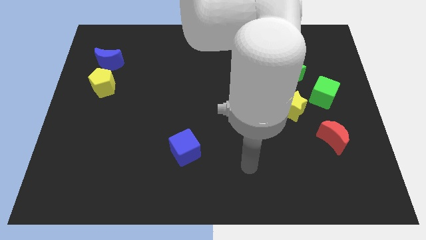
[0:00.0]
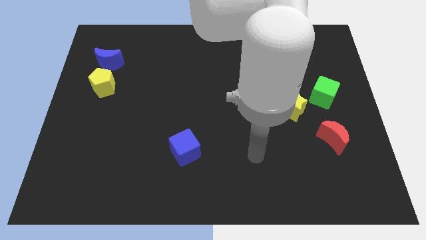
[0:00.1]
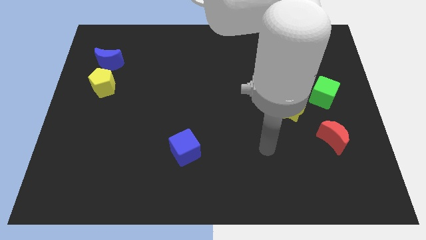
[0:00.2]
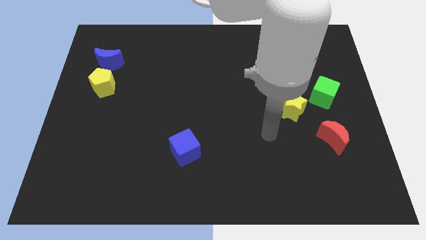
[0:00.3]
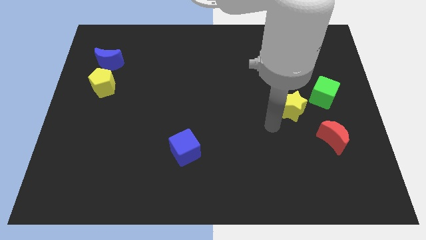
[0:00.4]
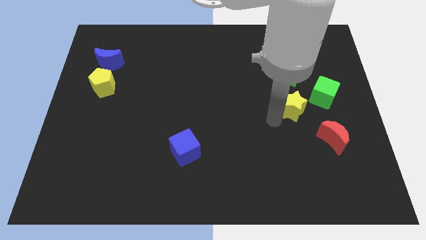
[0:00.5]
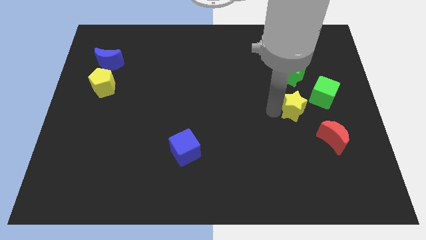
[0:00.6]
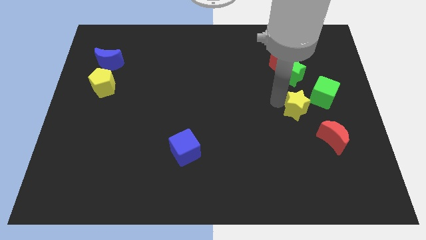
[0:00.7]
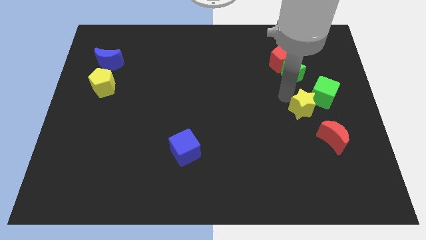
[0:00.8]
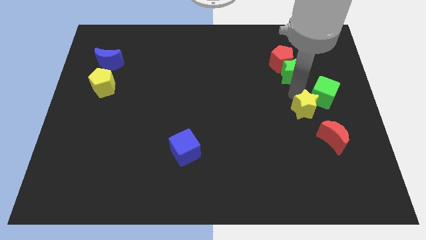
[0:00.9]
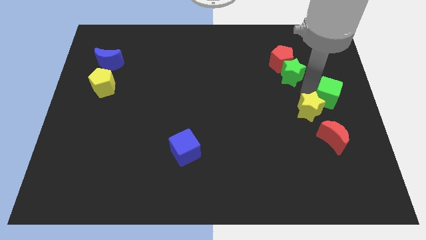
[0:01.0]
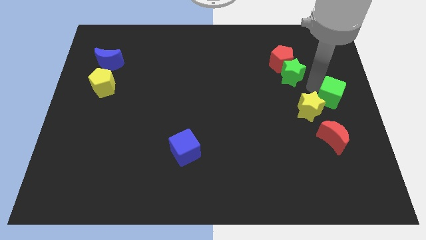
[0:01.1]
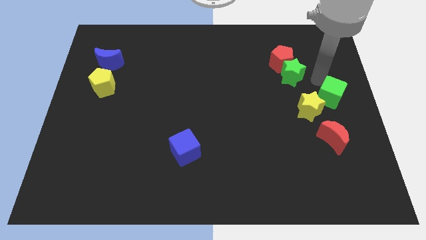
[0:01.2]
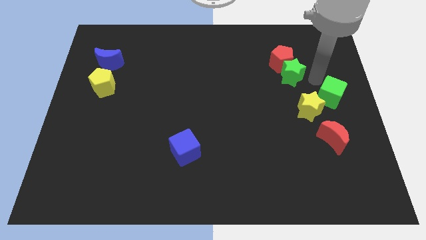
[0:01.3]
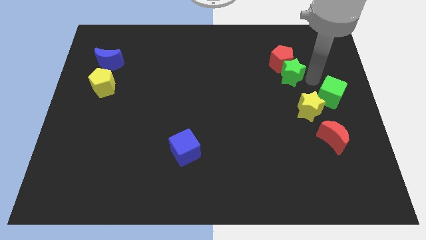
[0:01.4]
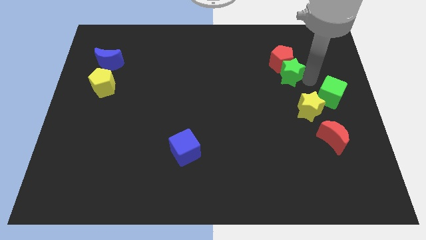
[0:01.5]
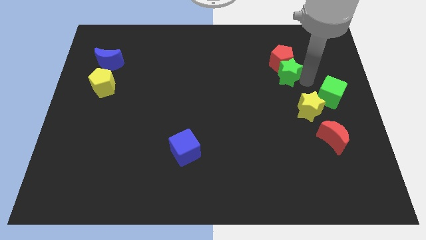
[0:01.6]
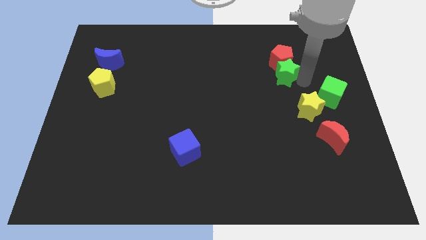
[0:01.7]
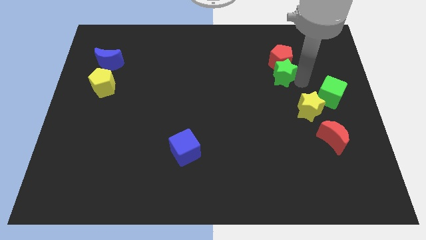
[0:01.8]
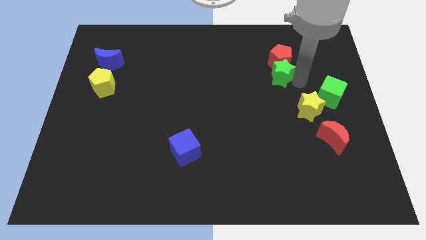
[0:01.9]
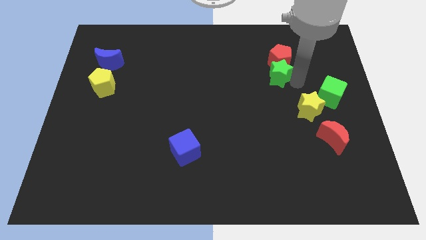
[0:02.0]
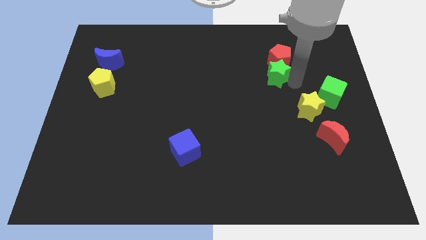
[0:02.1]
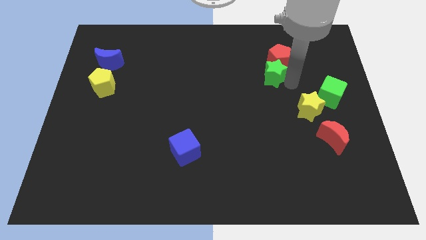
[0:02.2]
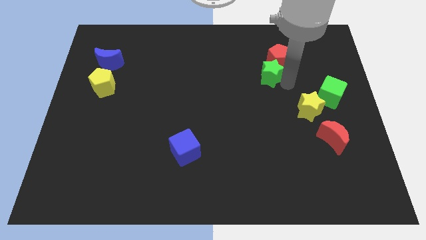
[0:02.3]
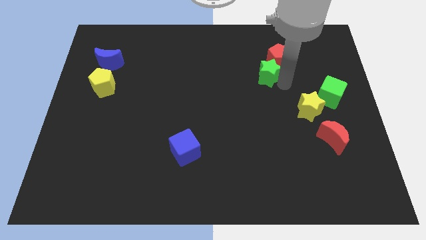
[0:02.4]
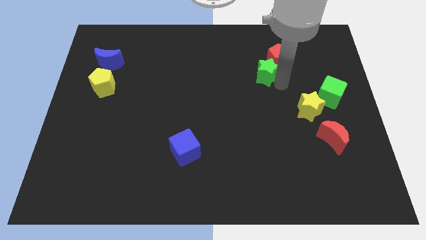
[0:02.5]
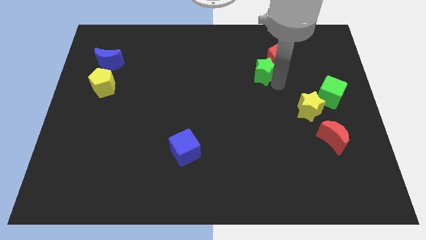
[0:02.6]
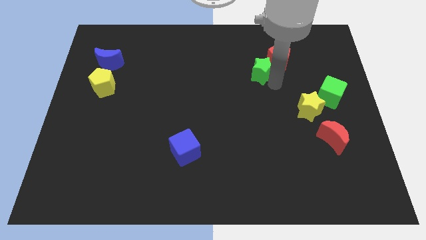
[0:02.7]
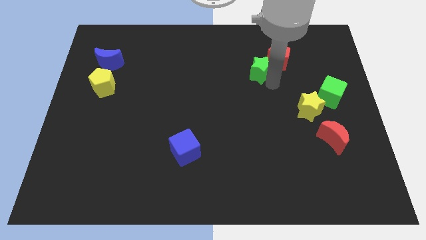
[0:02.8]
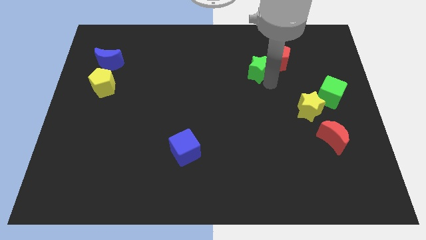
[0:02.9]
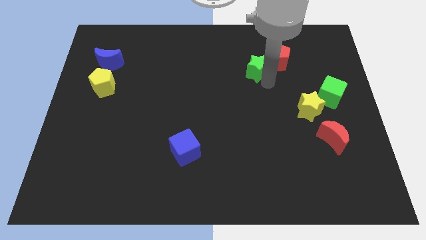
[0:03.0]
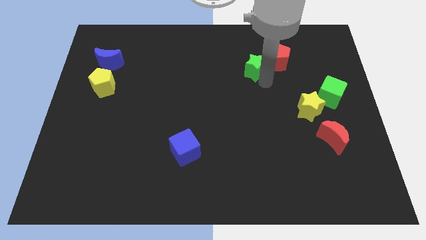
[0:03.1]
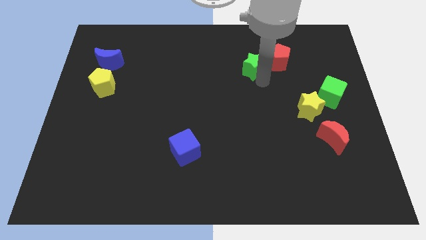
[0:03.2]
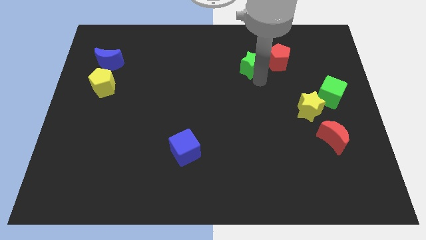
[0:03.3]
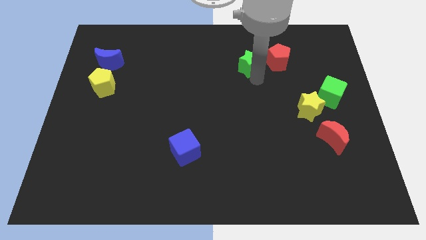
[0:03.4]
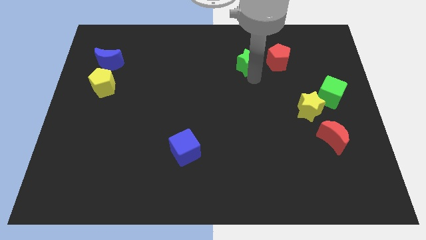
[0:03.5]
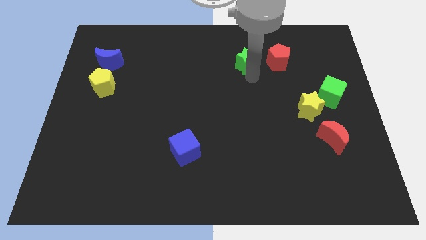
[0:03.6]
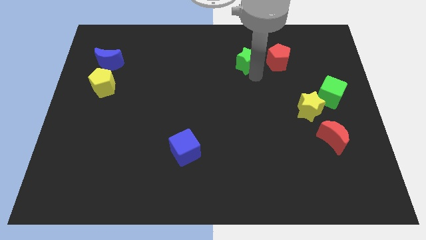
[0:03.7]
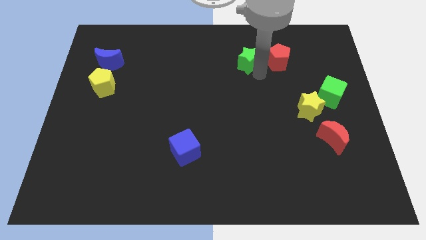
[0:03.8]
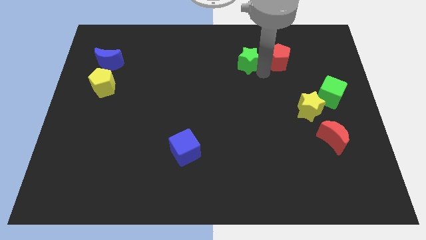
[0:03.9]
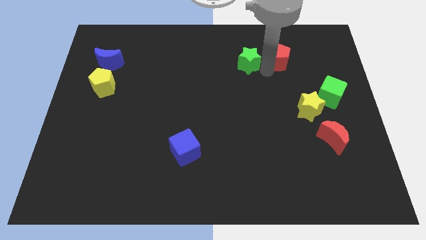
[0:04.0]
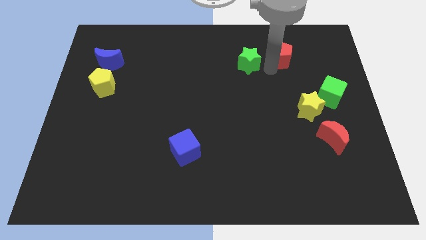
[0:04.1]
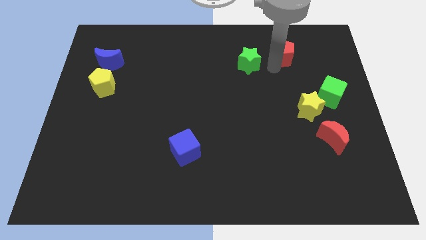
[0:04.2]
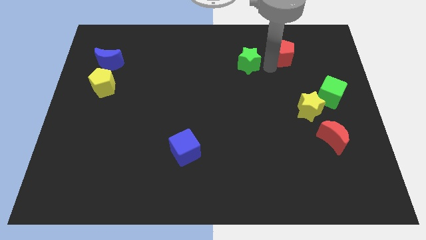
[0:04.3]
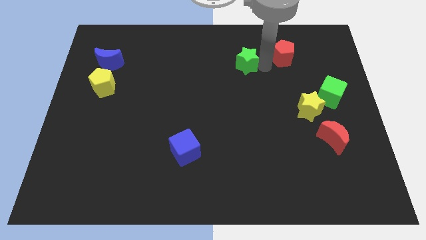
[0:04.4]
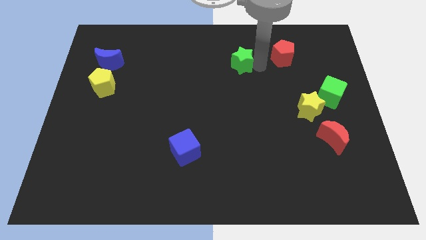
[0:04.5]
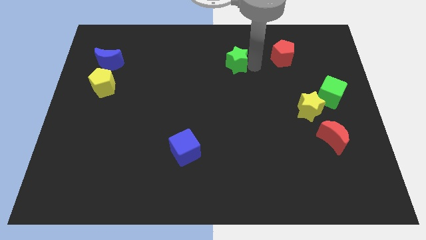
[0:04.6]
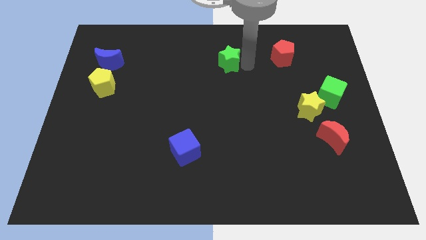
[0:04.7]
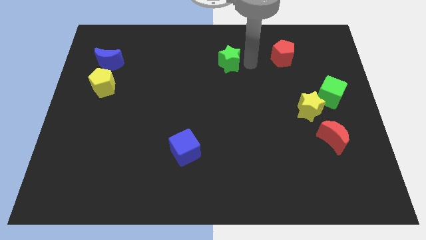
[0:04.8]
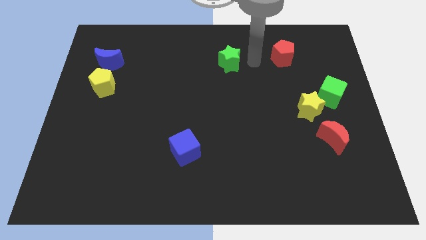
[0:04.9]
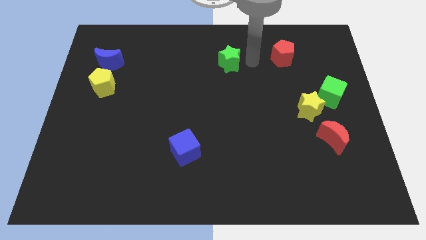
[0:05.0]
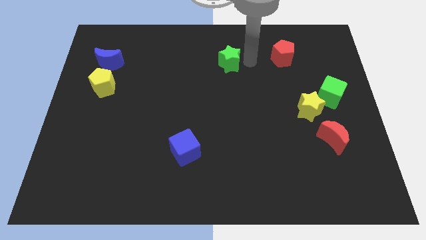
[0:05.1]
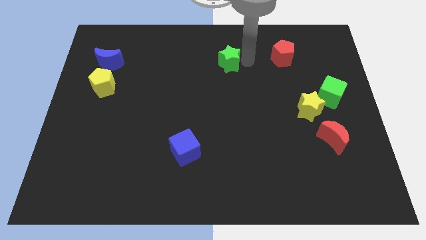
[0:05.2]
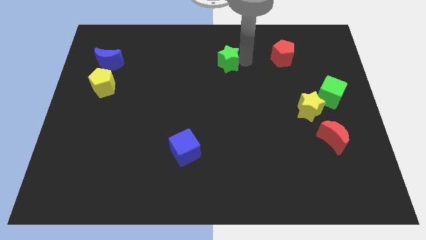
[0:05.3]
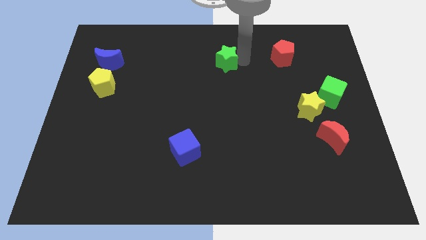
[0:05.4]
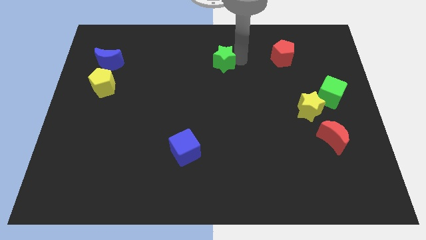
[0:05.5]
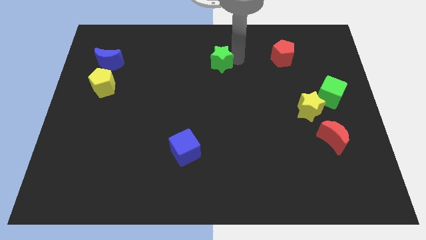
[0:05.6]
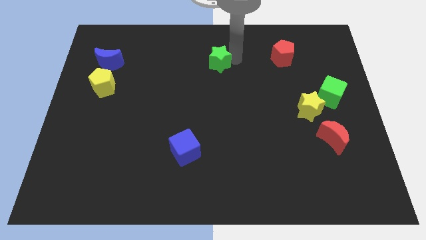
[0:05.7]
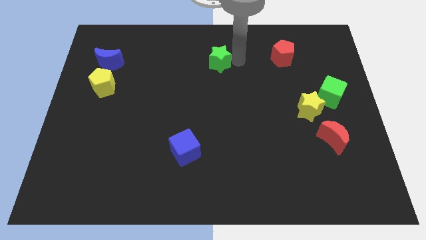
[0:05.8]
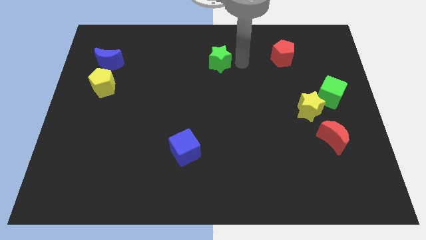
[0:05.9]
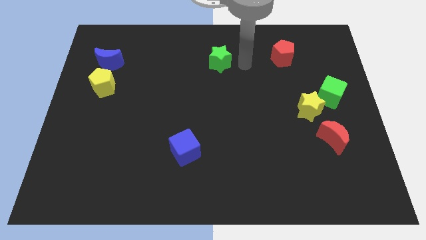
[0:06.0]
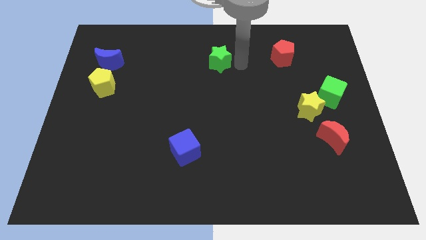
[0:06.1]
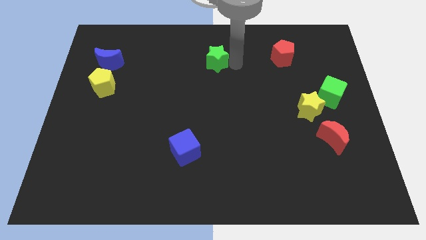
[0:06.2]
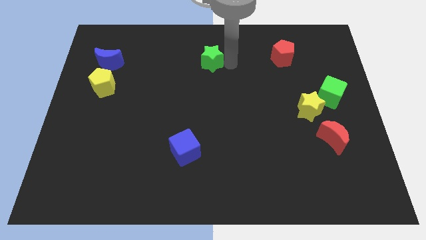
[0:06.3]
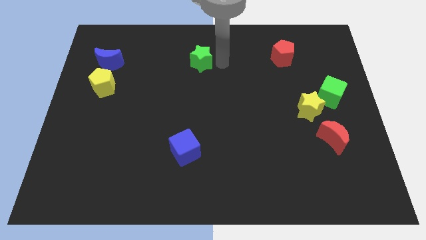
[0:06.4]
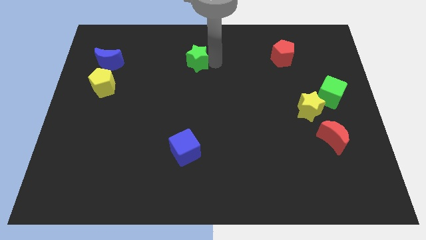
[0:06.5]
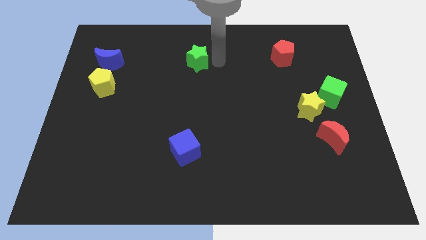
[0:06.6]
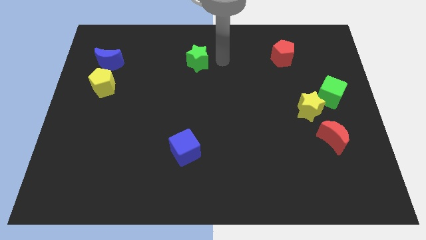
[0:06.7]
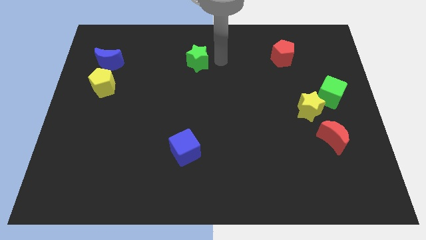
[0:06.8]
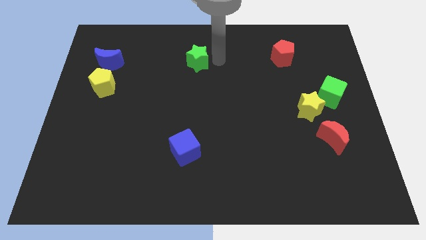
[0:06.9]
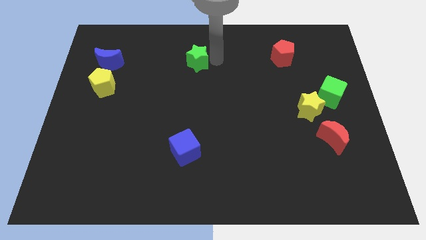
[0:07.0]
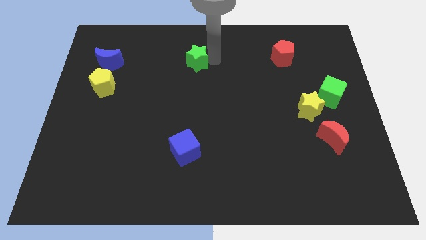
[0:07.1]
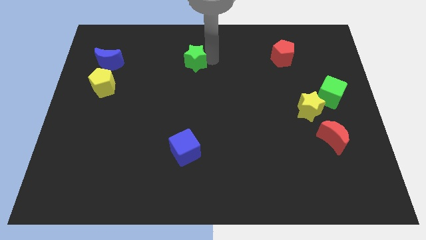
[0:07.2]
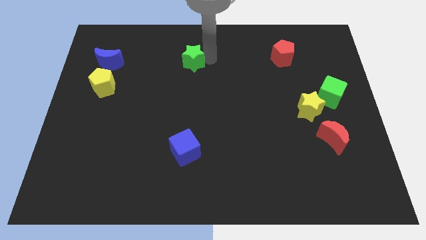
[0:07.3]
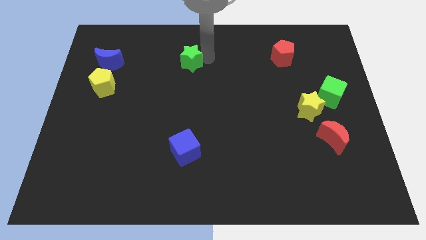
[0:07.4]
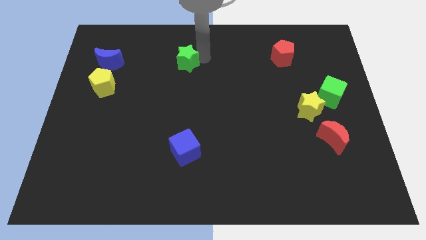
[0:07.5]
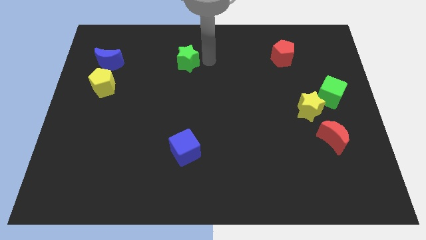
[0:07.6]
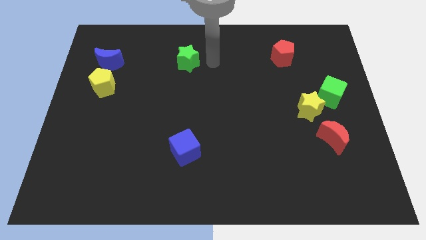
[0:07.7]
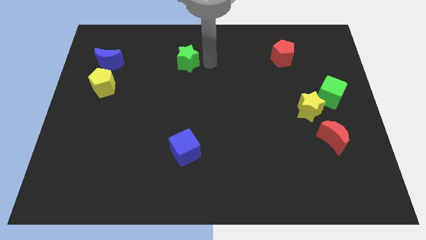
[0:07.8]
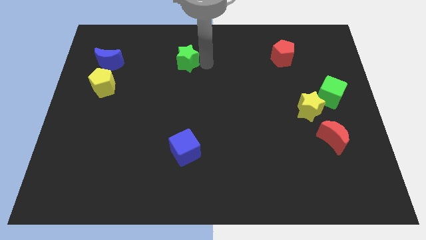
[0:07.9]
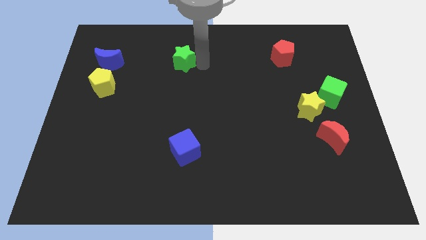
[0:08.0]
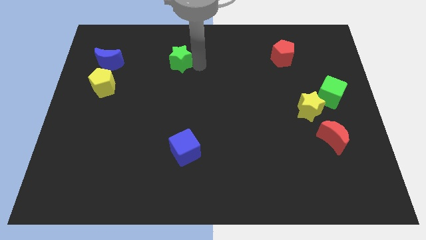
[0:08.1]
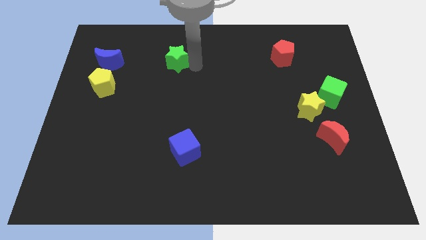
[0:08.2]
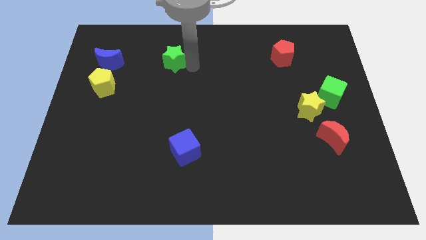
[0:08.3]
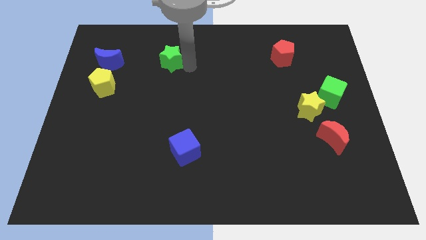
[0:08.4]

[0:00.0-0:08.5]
push the green star to the right of the blue moon
